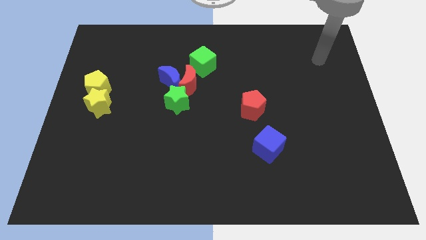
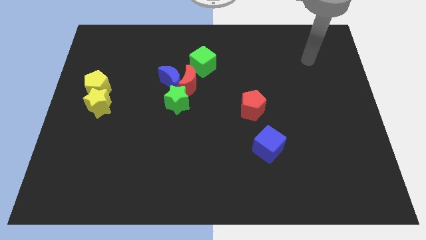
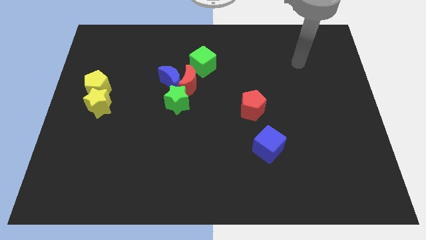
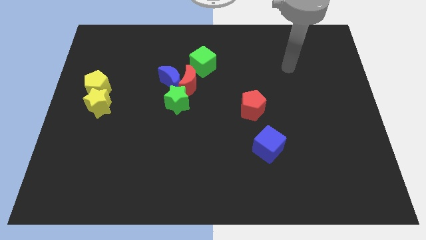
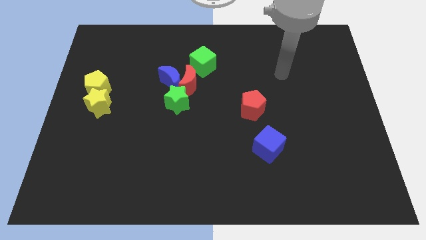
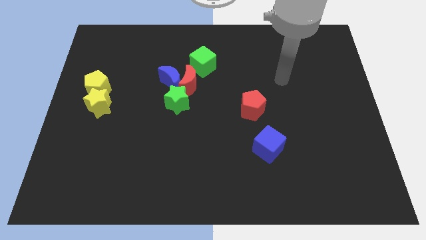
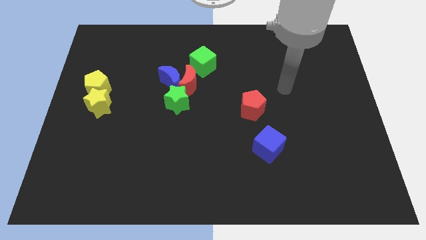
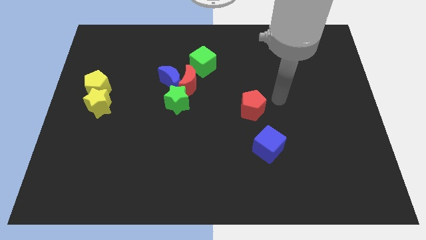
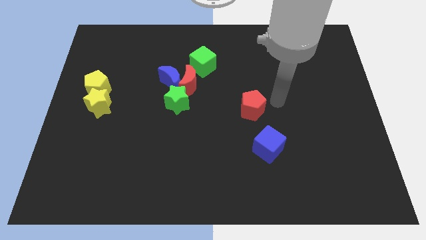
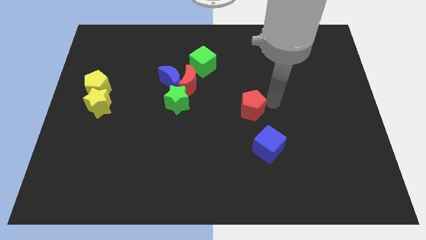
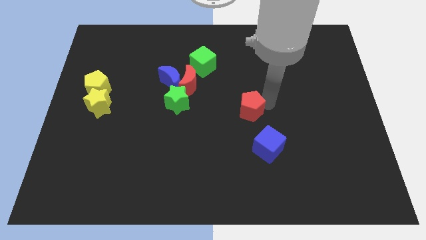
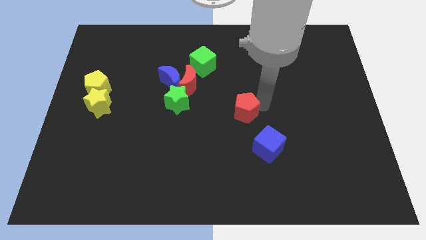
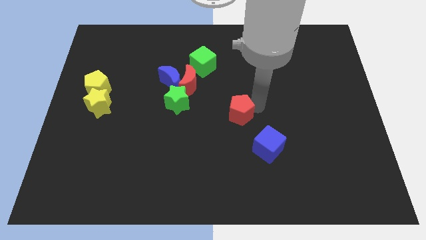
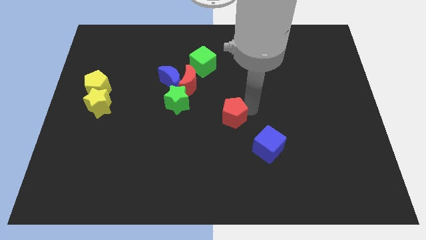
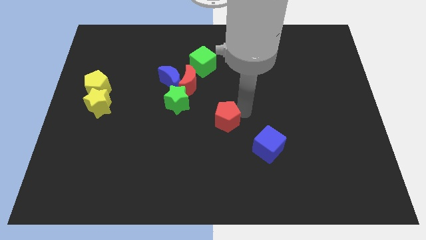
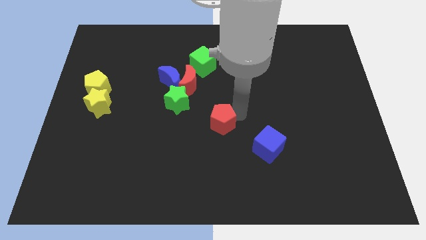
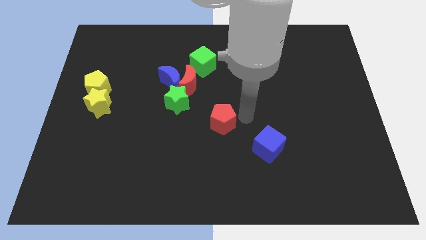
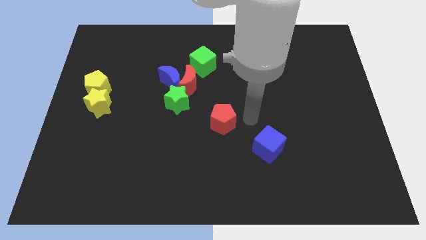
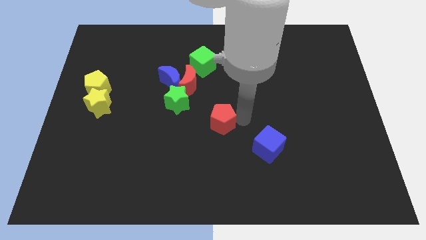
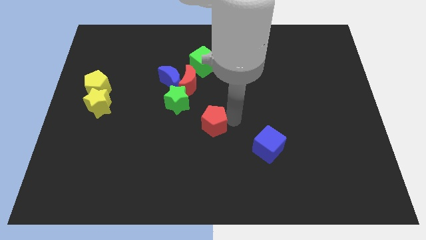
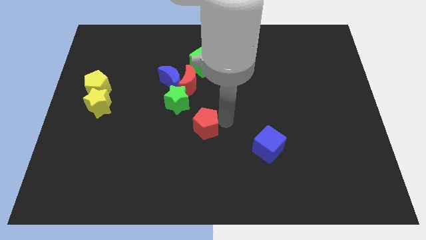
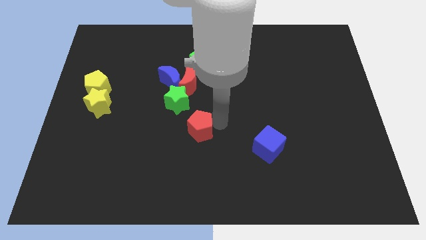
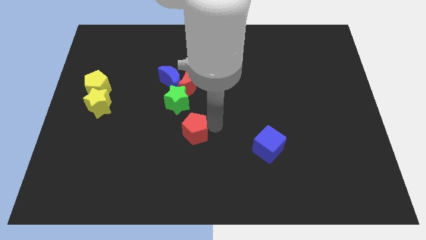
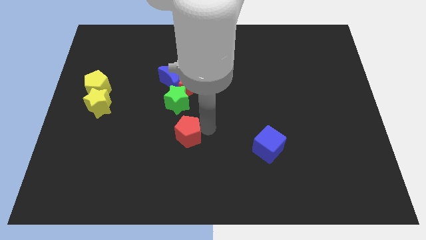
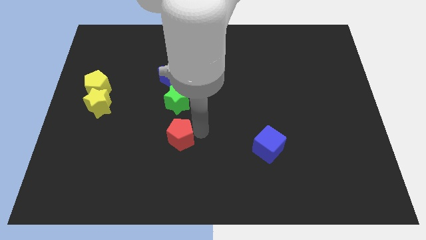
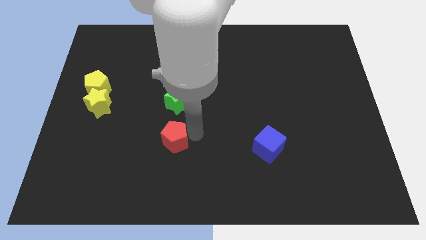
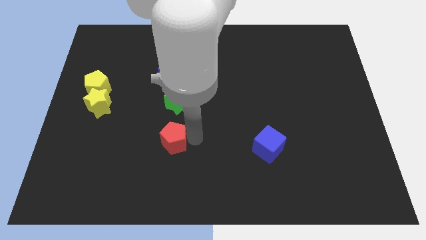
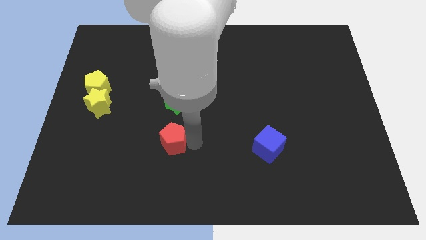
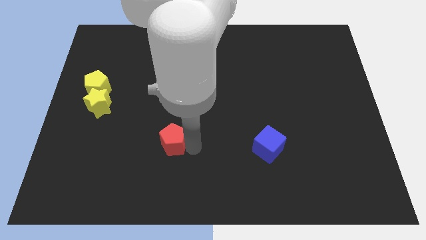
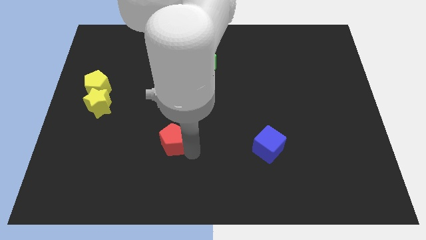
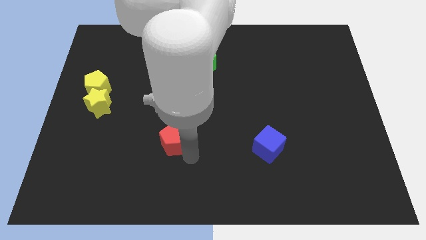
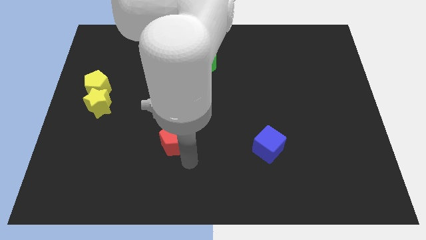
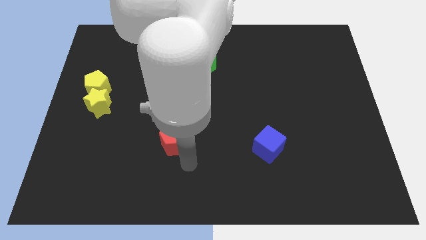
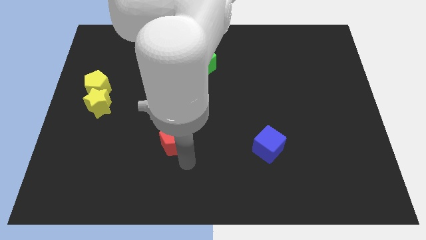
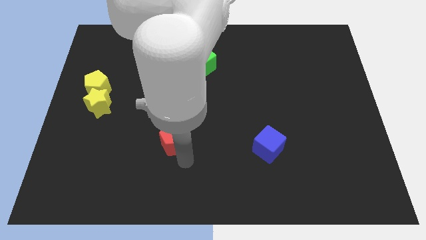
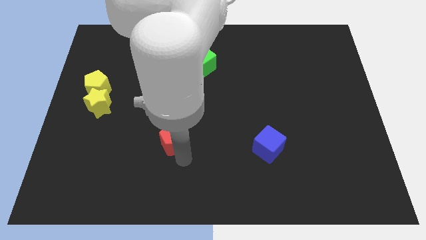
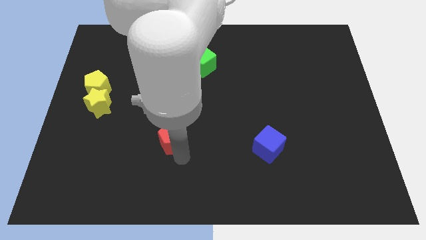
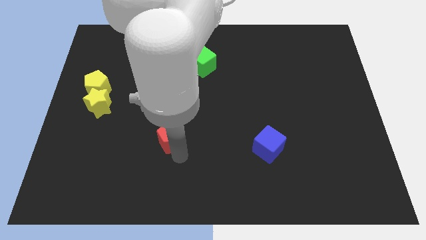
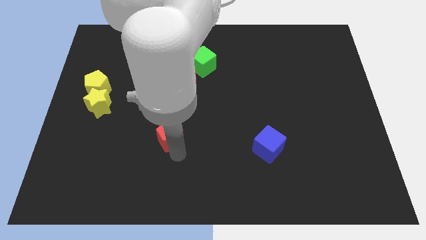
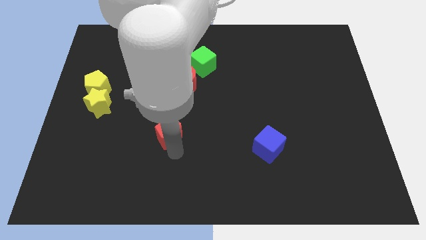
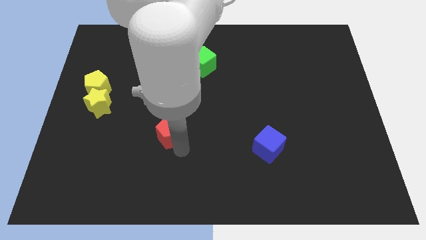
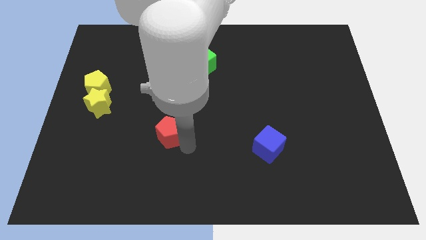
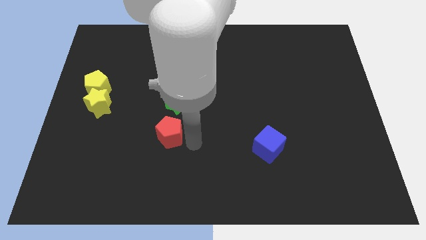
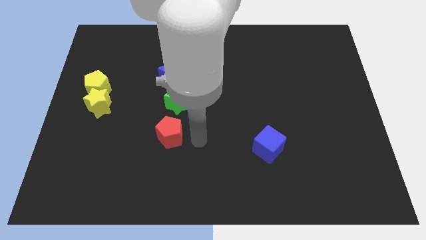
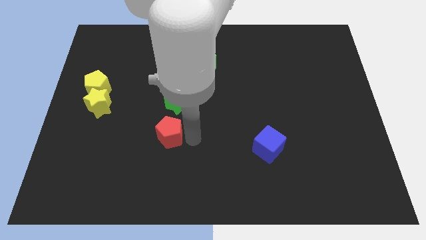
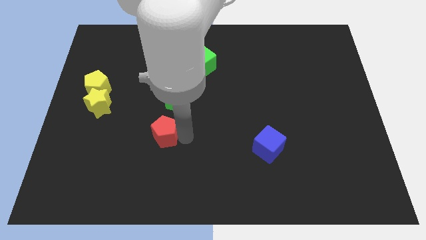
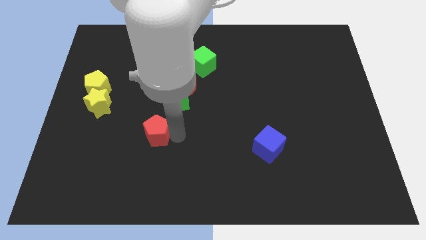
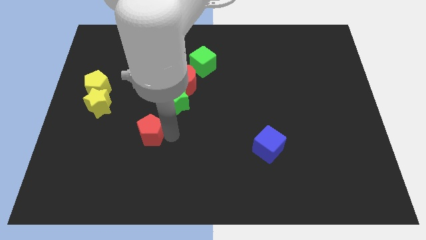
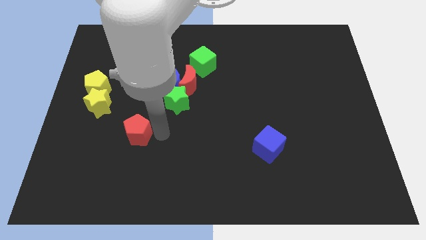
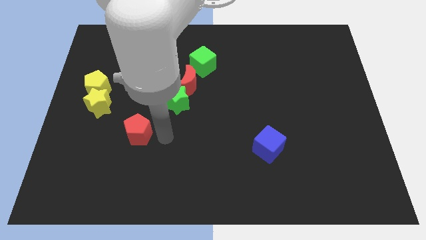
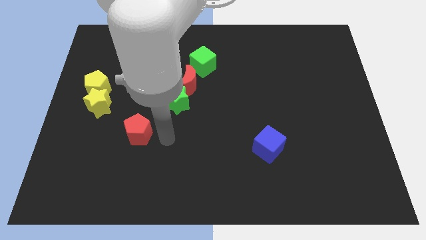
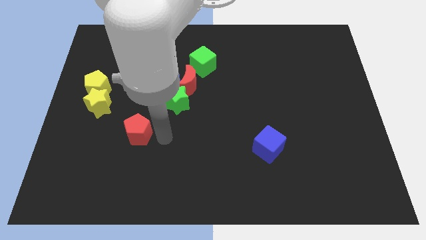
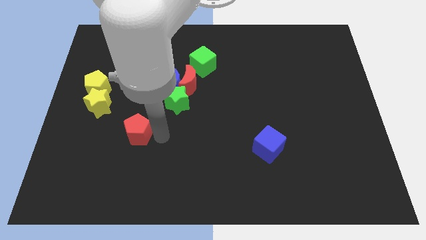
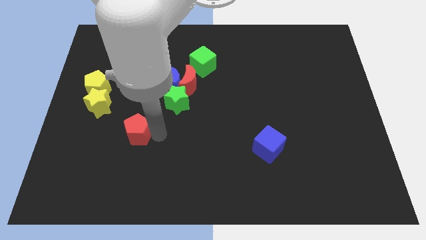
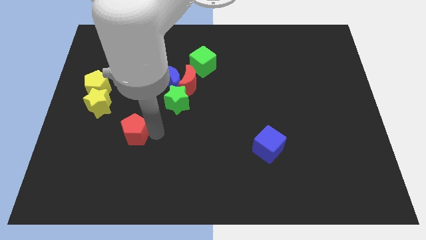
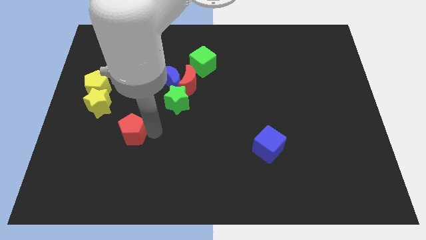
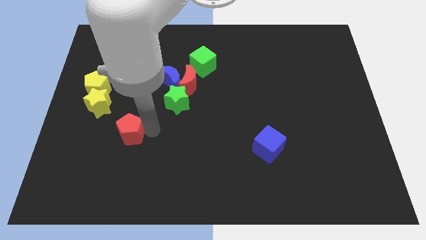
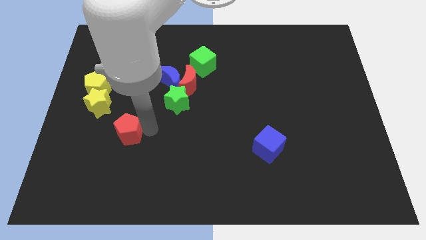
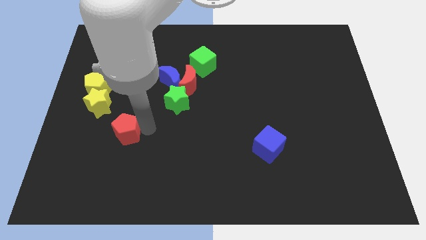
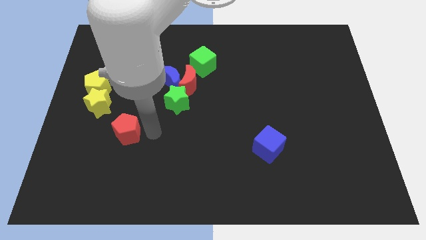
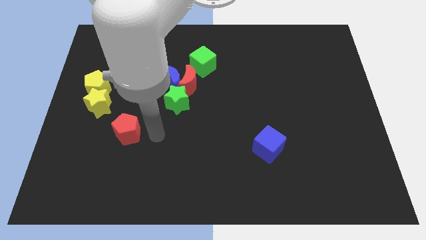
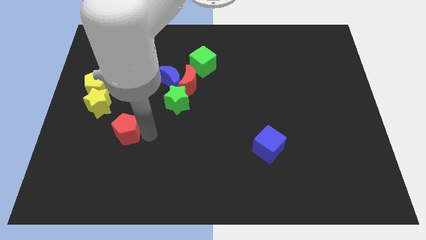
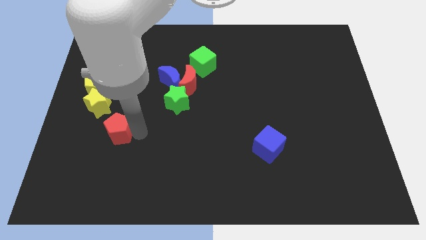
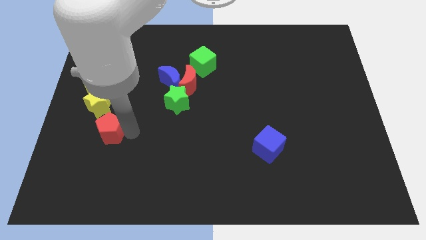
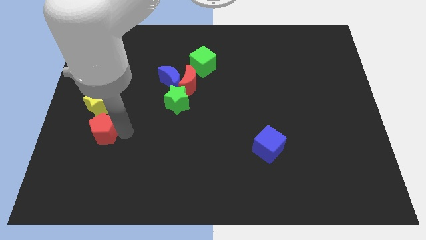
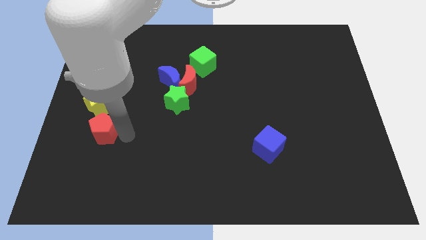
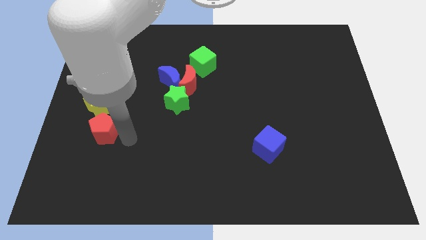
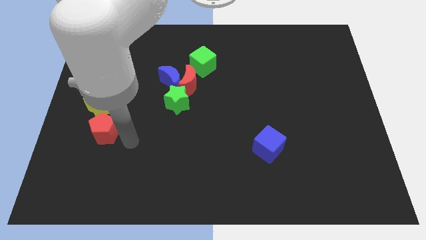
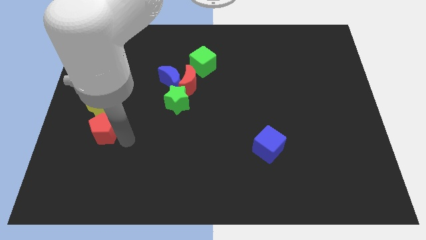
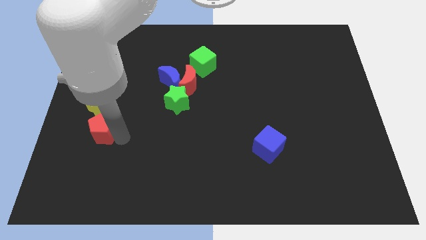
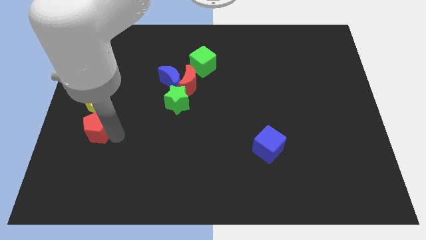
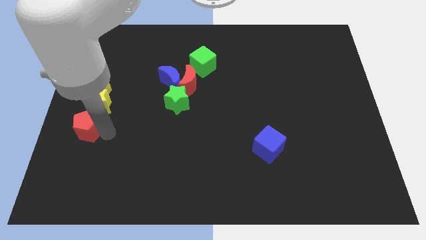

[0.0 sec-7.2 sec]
push the red pentagon to the left side
